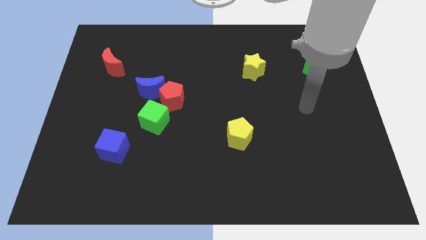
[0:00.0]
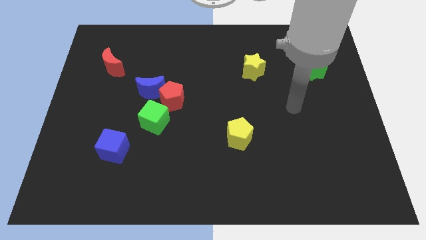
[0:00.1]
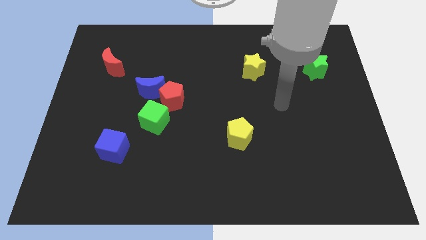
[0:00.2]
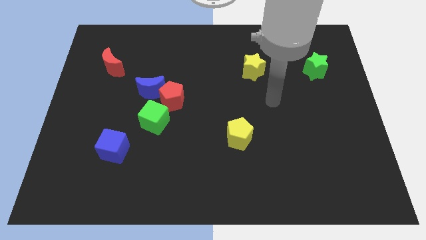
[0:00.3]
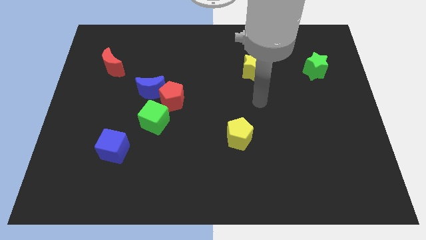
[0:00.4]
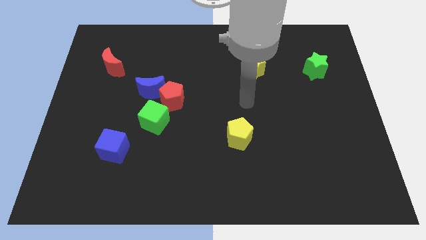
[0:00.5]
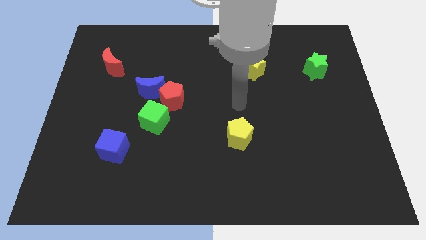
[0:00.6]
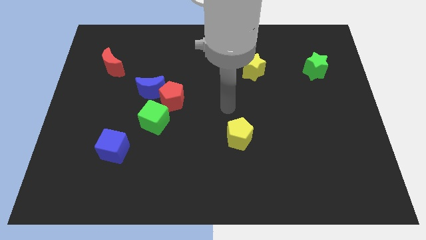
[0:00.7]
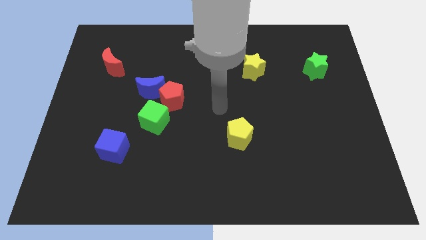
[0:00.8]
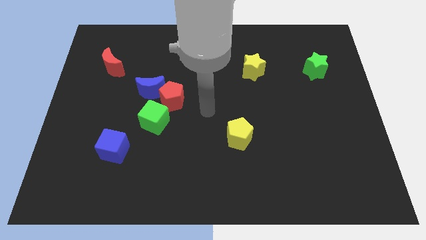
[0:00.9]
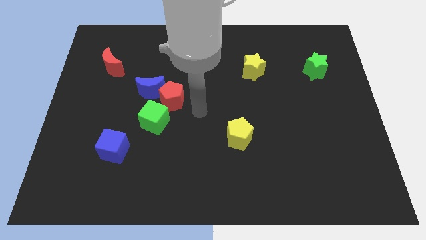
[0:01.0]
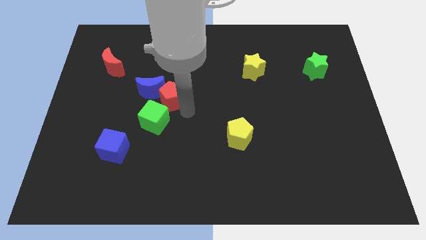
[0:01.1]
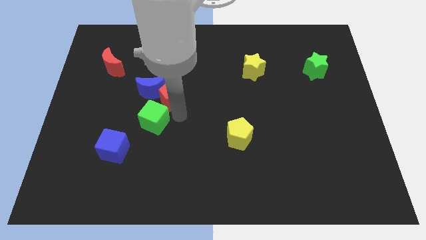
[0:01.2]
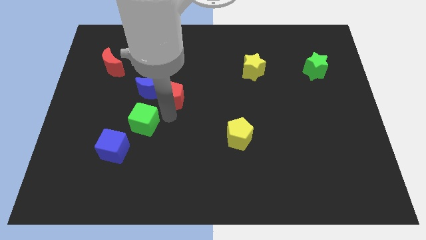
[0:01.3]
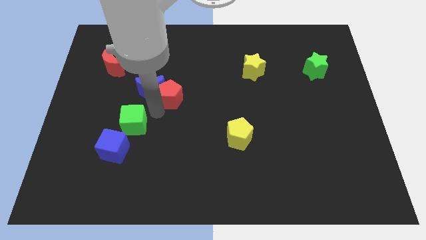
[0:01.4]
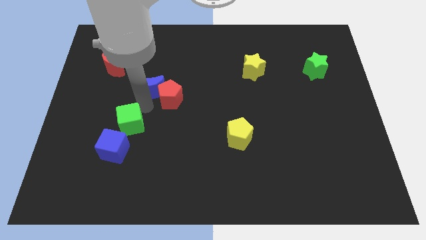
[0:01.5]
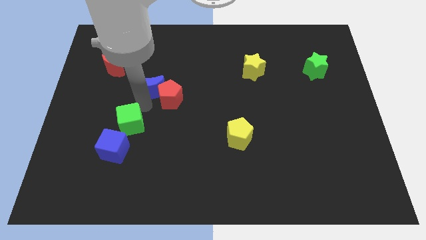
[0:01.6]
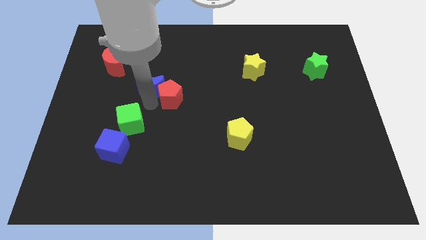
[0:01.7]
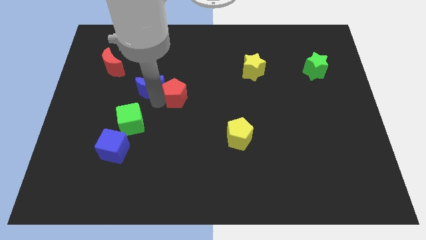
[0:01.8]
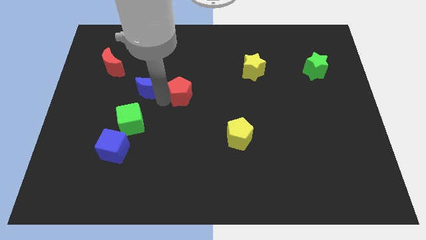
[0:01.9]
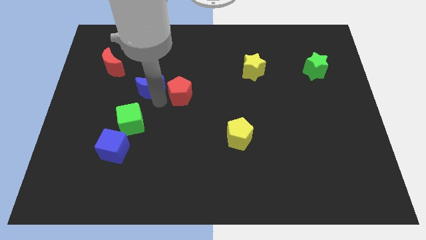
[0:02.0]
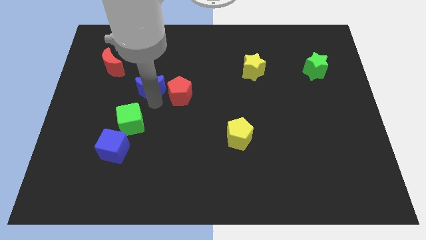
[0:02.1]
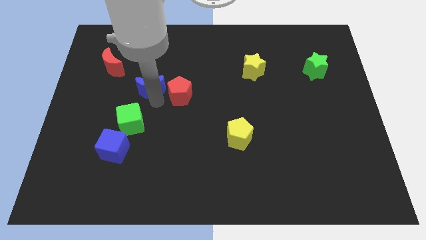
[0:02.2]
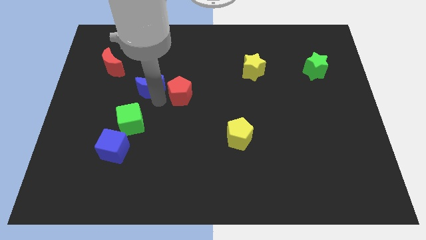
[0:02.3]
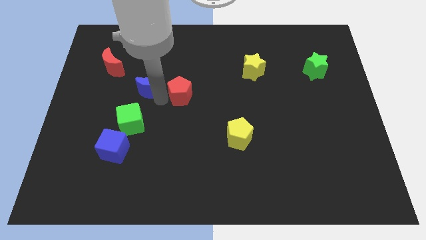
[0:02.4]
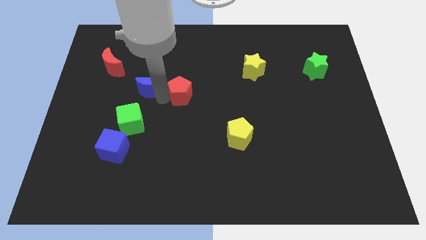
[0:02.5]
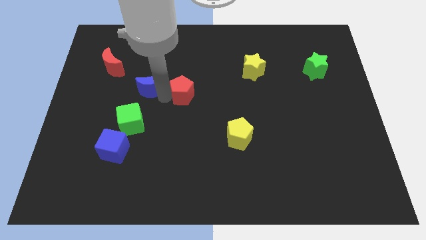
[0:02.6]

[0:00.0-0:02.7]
separate the red pentagon from the blue moon and green cube

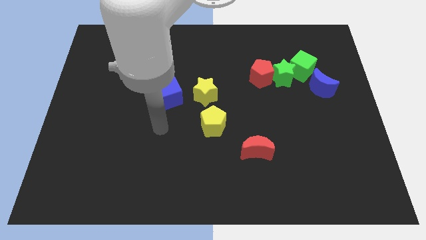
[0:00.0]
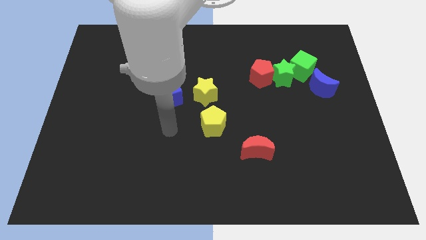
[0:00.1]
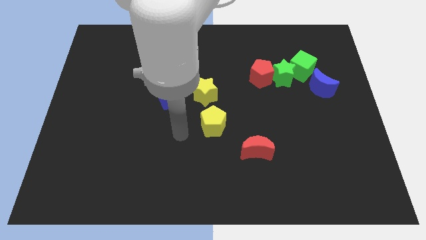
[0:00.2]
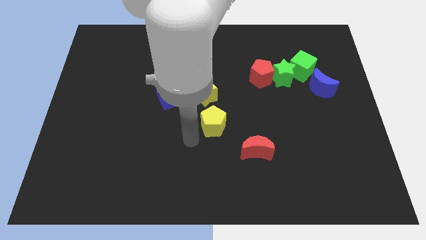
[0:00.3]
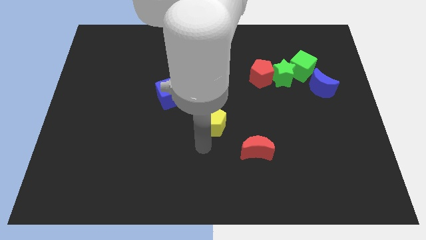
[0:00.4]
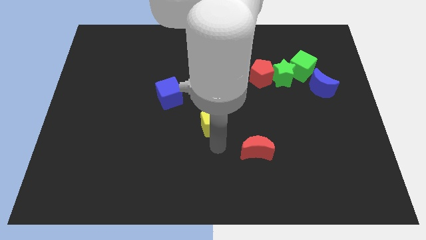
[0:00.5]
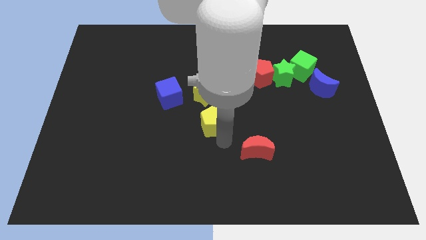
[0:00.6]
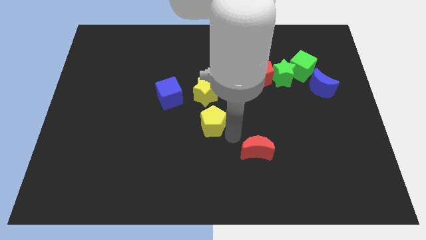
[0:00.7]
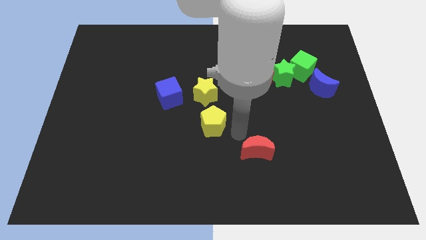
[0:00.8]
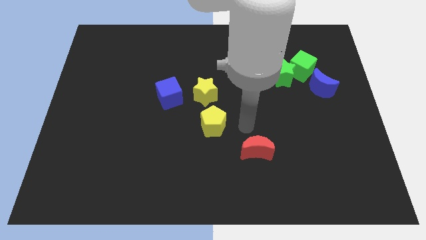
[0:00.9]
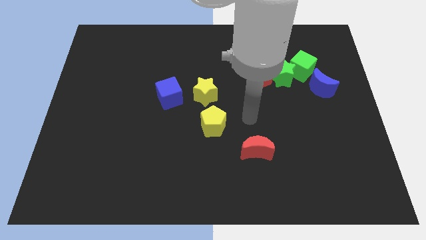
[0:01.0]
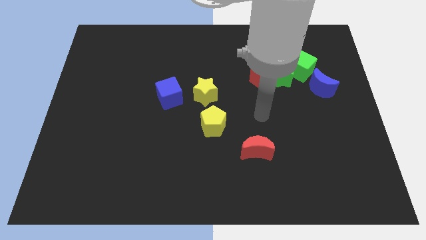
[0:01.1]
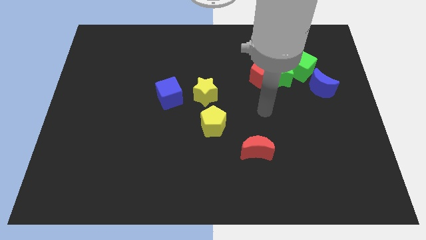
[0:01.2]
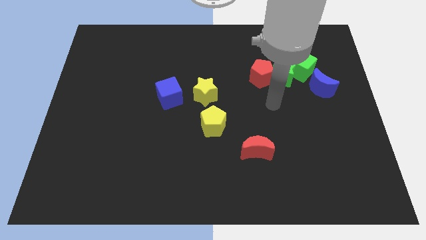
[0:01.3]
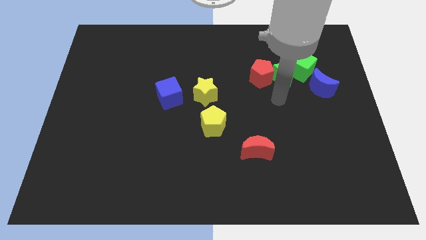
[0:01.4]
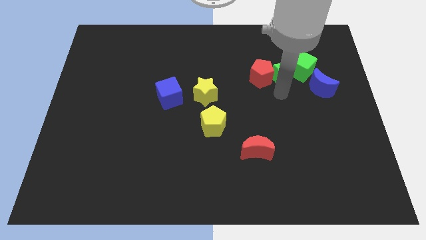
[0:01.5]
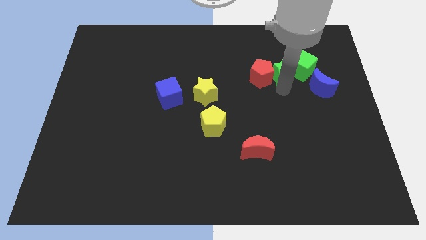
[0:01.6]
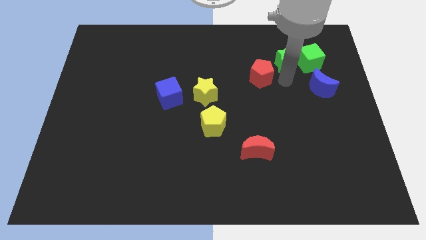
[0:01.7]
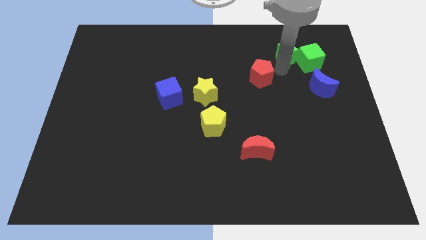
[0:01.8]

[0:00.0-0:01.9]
pull the red pentagon apart from the green star

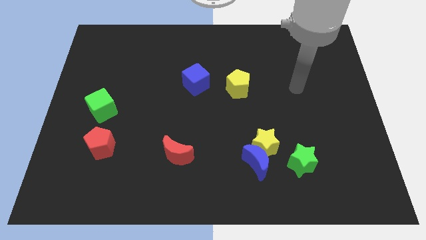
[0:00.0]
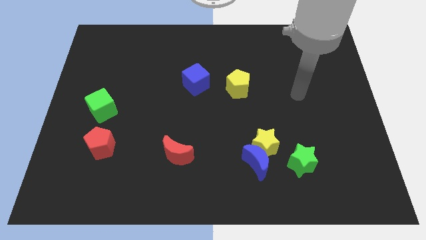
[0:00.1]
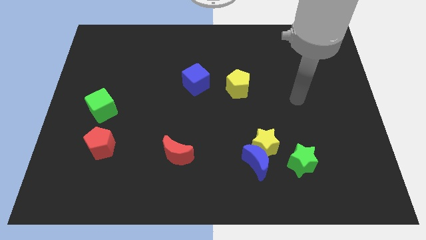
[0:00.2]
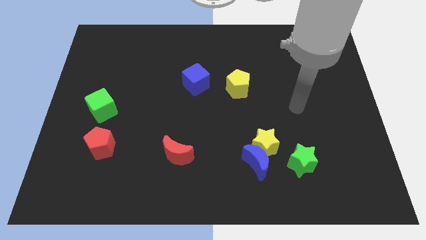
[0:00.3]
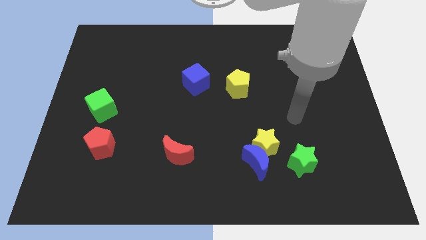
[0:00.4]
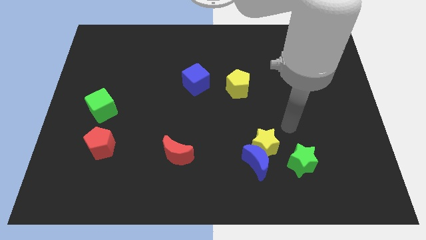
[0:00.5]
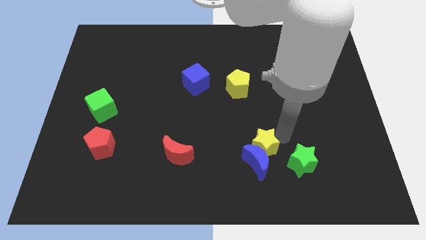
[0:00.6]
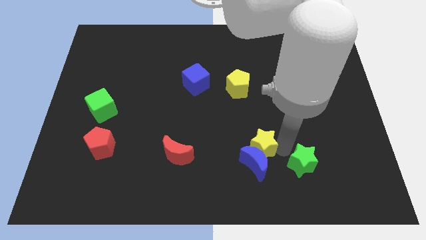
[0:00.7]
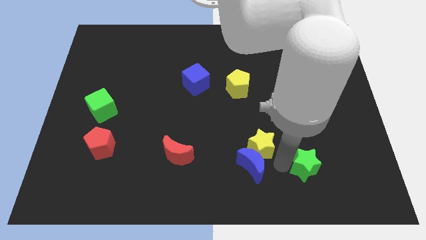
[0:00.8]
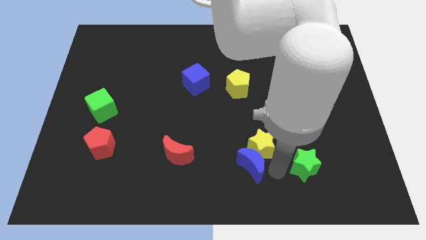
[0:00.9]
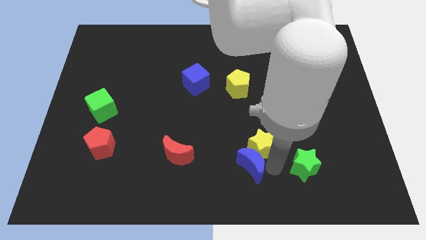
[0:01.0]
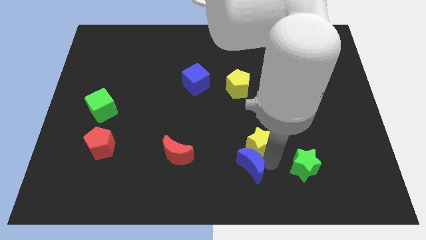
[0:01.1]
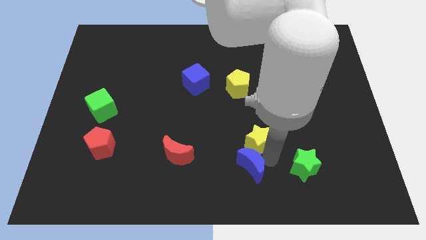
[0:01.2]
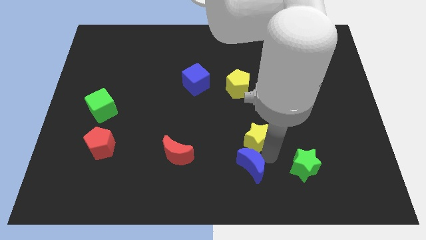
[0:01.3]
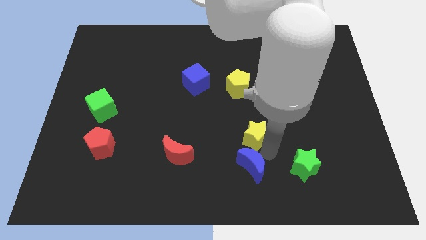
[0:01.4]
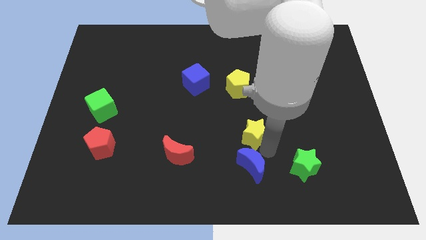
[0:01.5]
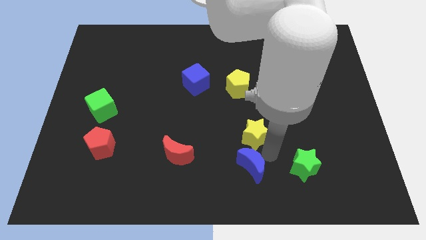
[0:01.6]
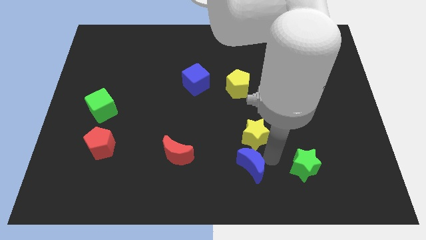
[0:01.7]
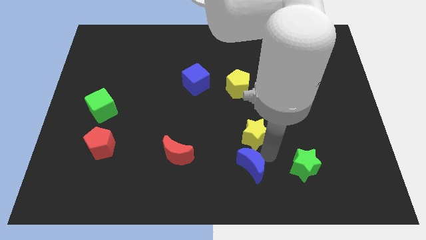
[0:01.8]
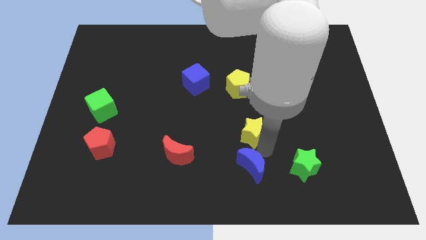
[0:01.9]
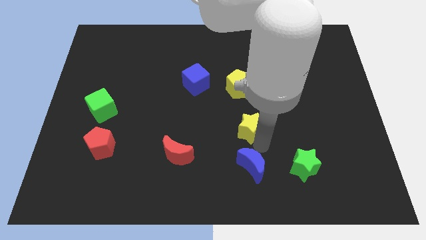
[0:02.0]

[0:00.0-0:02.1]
pull the yellow star apart from the blue moon and green star

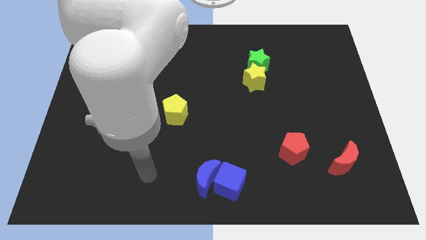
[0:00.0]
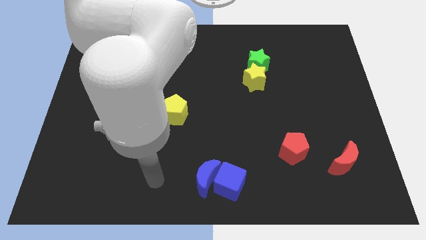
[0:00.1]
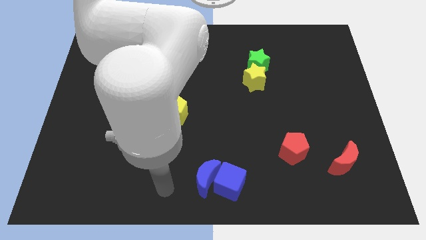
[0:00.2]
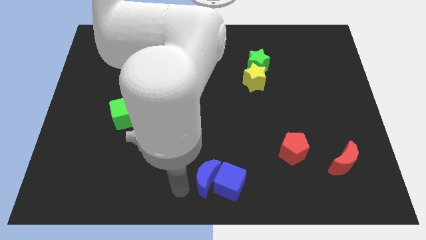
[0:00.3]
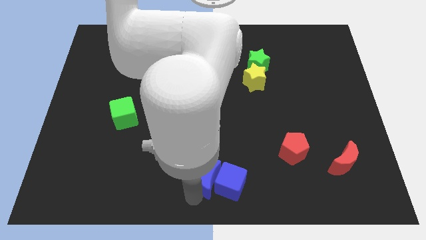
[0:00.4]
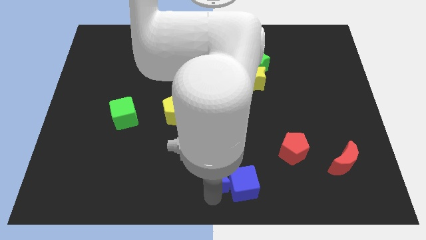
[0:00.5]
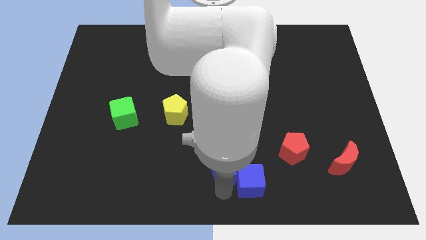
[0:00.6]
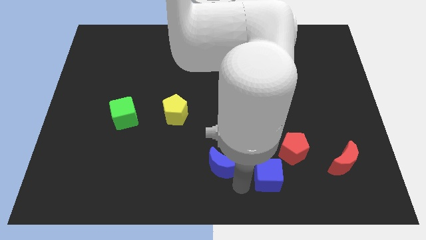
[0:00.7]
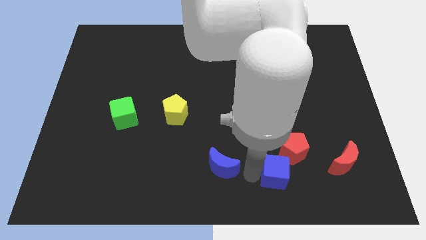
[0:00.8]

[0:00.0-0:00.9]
pull the blue moon apart from the blue cube

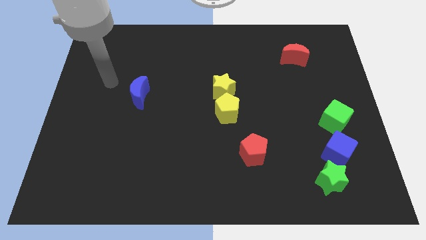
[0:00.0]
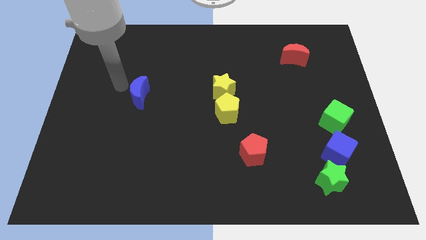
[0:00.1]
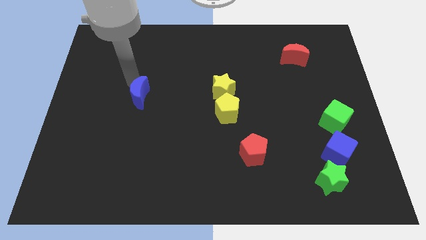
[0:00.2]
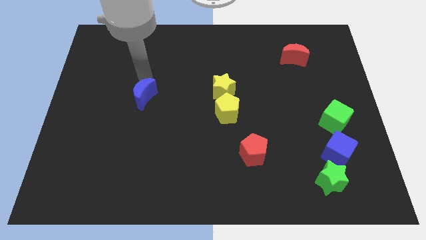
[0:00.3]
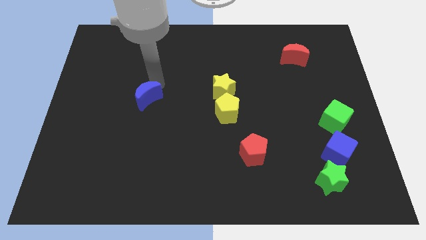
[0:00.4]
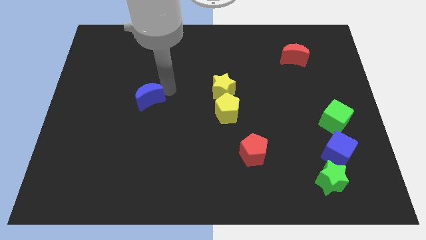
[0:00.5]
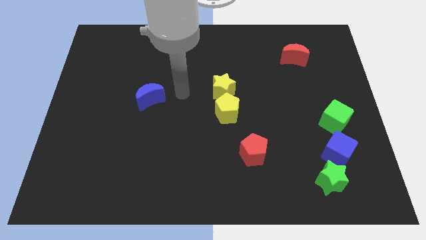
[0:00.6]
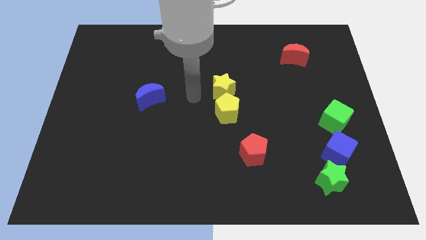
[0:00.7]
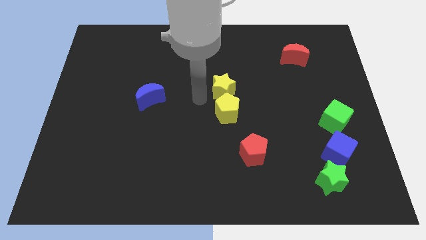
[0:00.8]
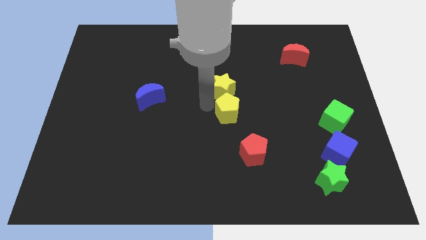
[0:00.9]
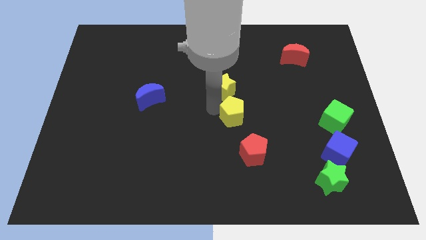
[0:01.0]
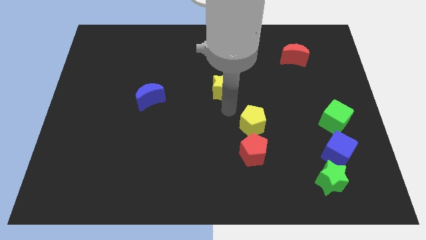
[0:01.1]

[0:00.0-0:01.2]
separate the yellow star from the yellow pentagon

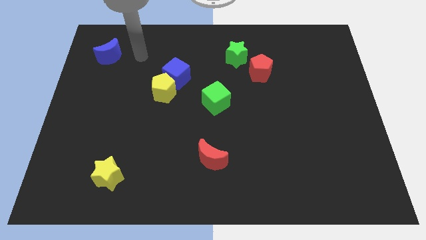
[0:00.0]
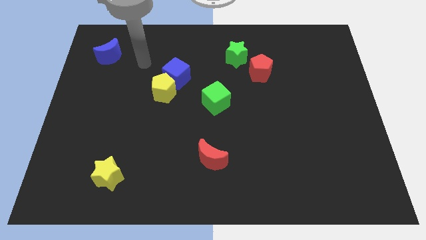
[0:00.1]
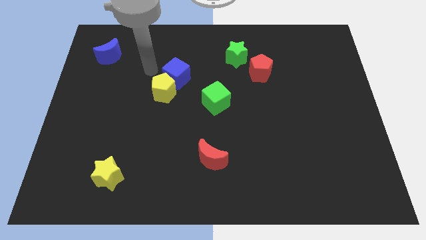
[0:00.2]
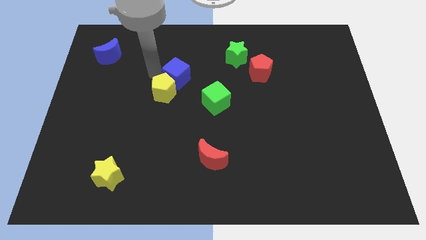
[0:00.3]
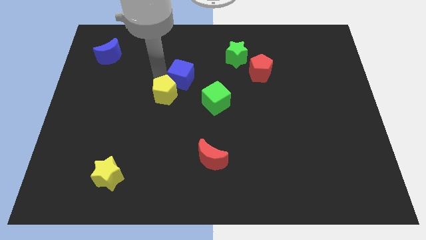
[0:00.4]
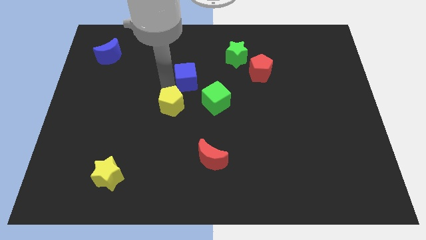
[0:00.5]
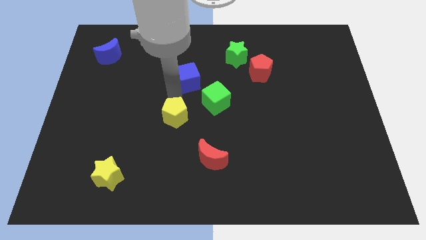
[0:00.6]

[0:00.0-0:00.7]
separate the blue cube from the yellow pentagon
